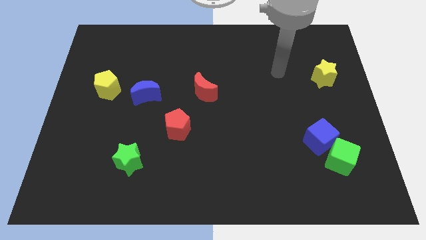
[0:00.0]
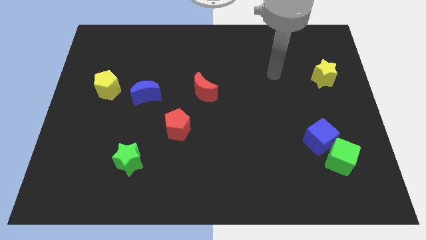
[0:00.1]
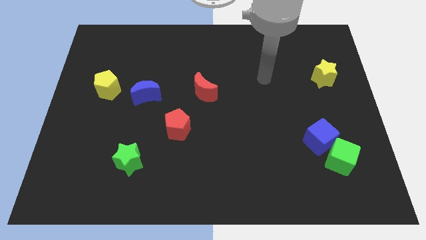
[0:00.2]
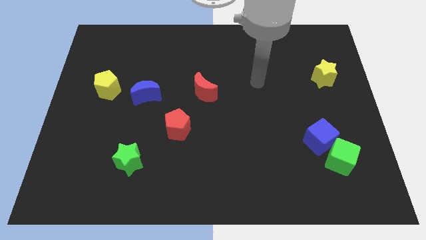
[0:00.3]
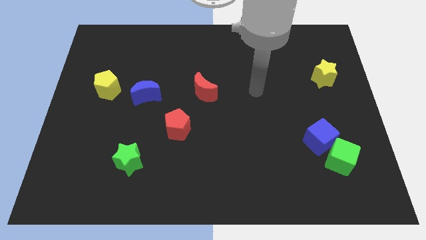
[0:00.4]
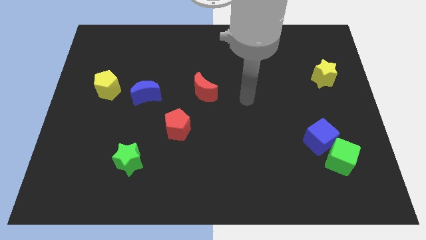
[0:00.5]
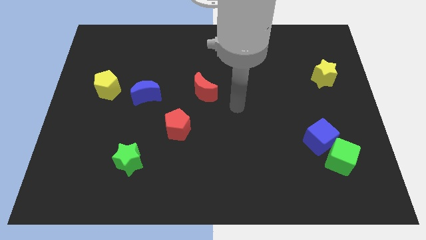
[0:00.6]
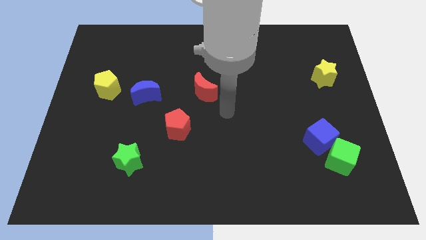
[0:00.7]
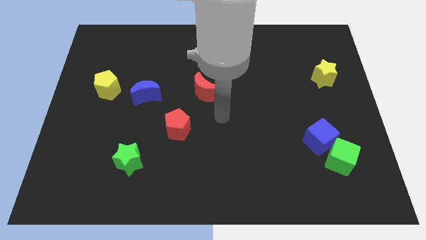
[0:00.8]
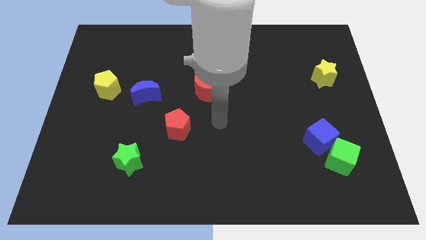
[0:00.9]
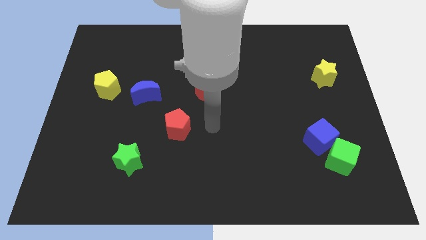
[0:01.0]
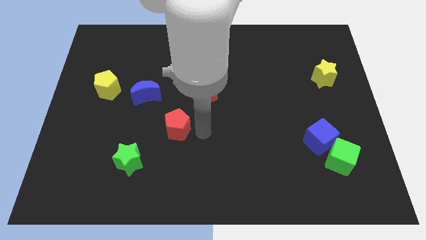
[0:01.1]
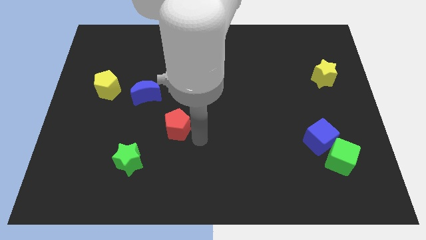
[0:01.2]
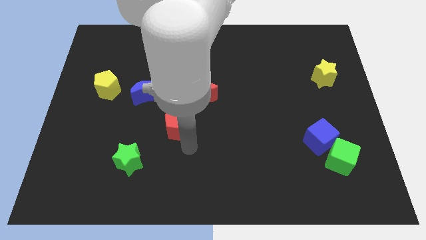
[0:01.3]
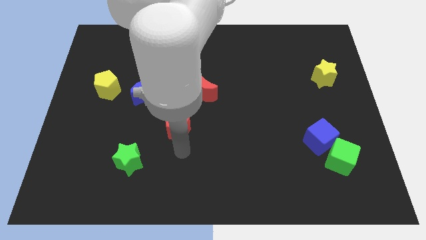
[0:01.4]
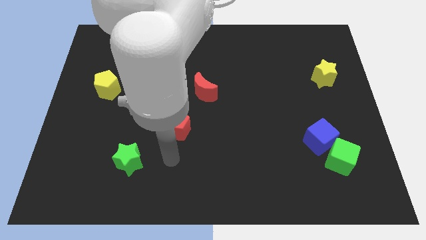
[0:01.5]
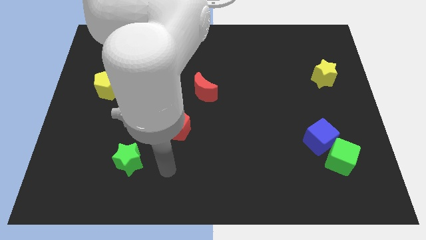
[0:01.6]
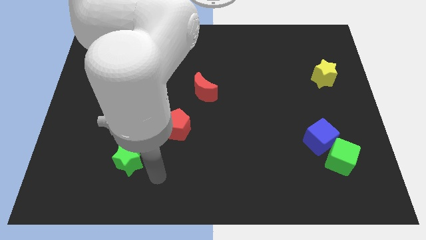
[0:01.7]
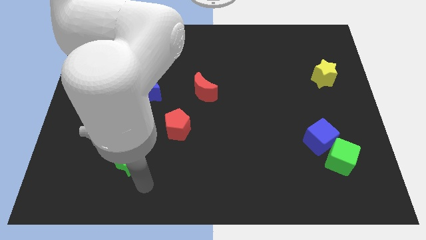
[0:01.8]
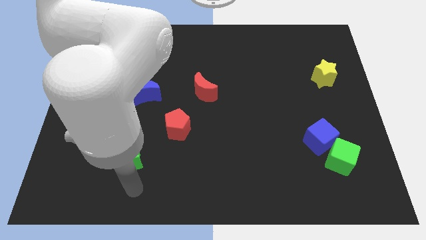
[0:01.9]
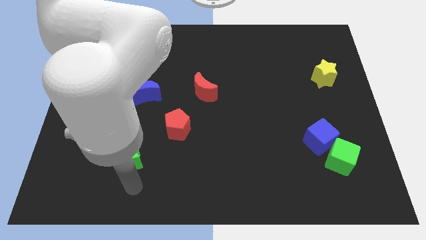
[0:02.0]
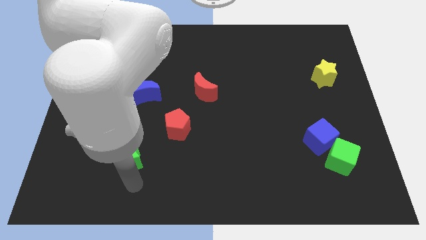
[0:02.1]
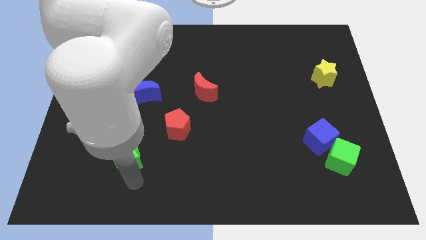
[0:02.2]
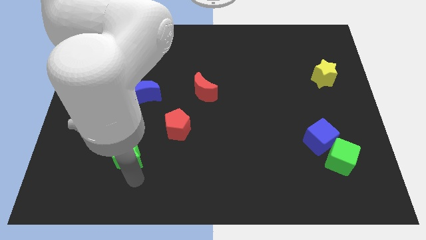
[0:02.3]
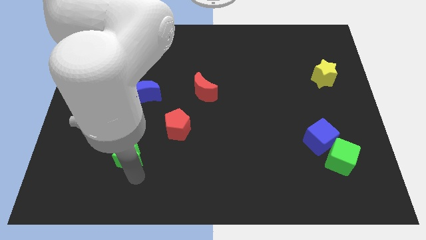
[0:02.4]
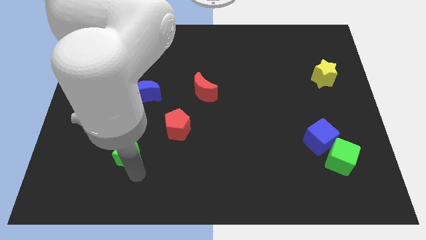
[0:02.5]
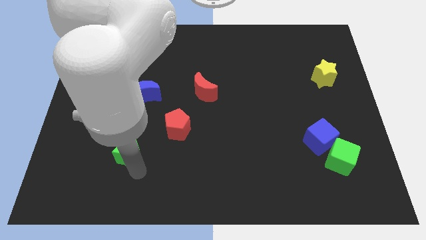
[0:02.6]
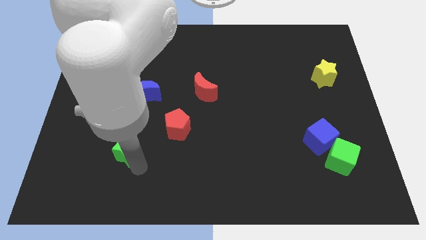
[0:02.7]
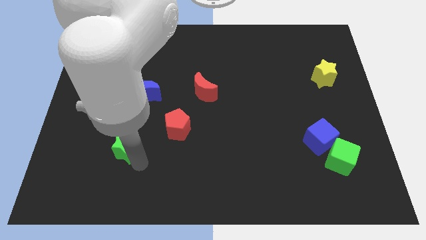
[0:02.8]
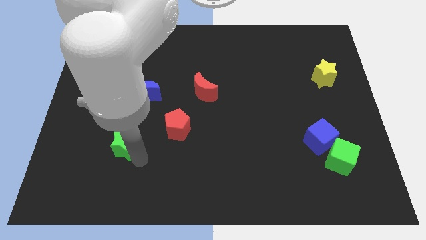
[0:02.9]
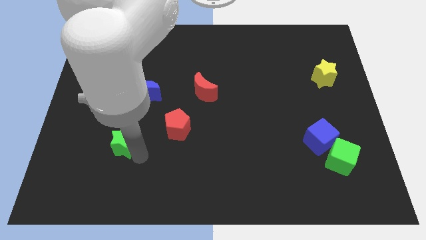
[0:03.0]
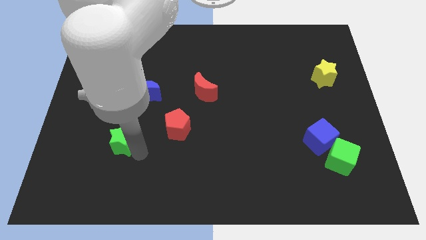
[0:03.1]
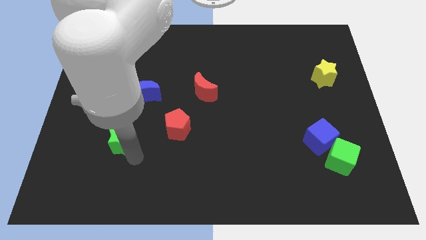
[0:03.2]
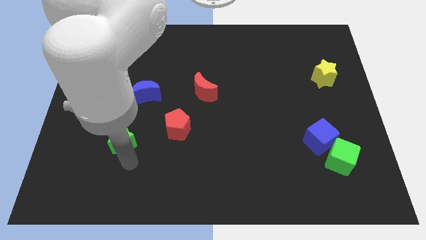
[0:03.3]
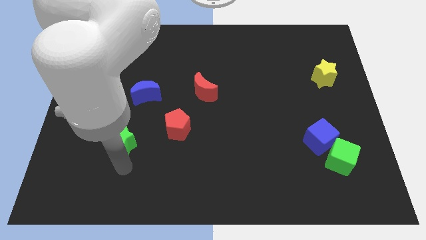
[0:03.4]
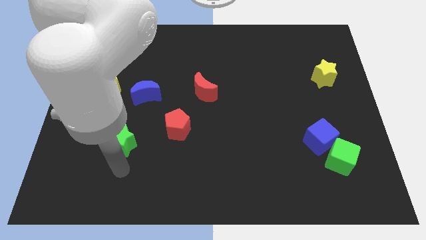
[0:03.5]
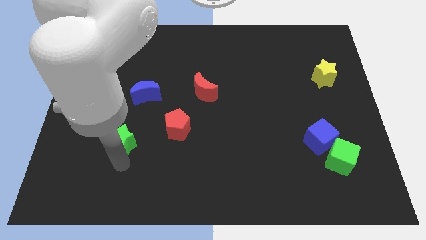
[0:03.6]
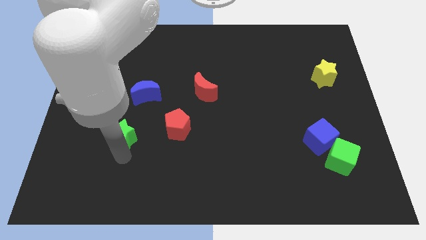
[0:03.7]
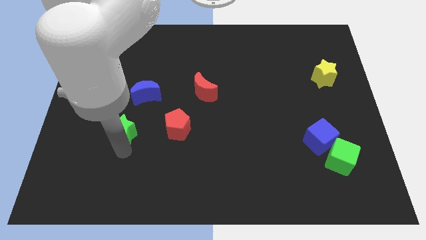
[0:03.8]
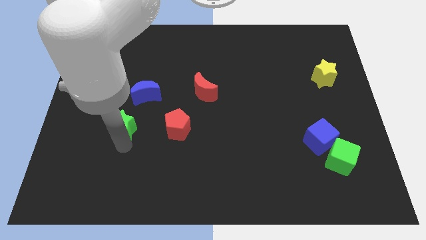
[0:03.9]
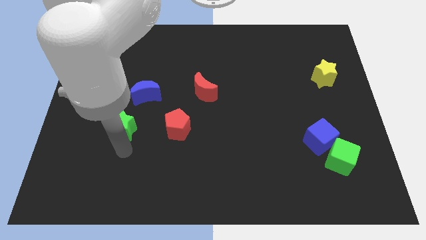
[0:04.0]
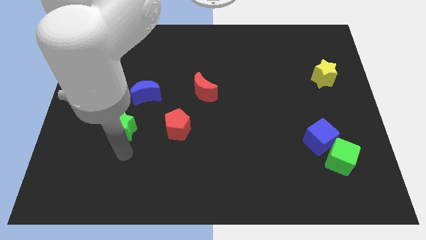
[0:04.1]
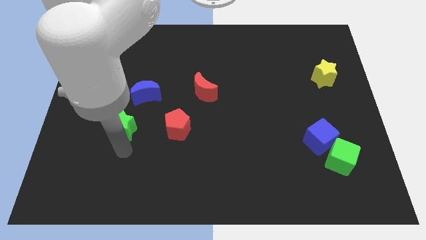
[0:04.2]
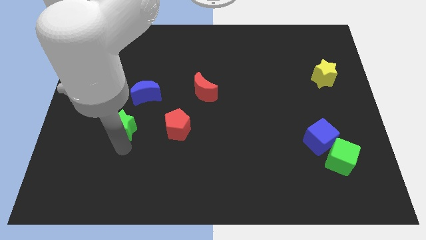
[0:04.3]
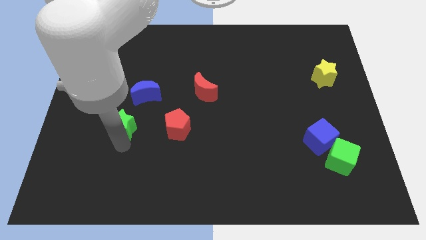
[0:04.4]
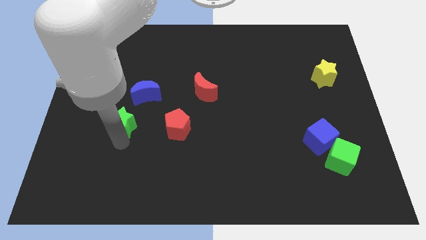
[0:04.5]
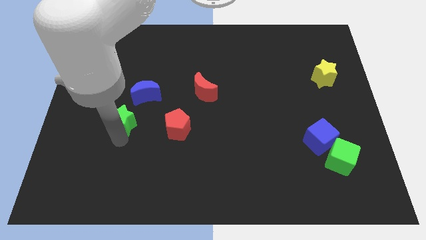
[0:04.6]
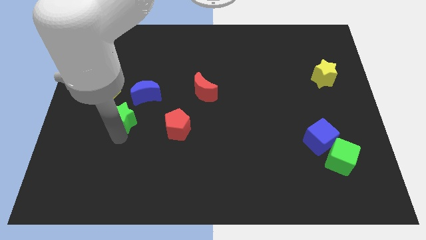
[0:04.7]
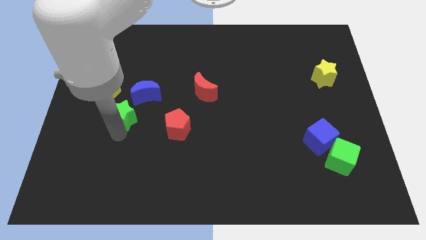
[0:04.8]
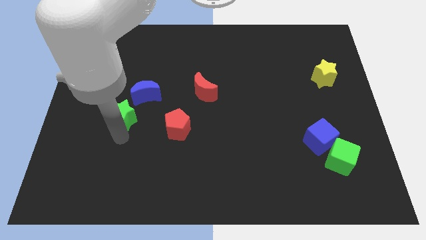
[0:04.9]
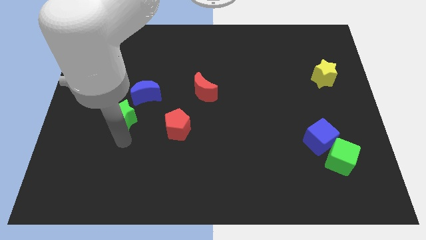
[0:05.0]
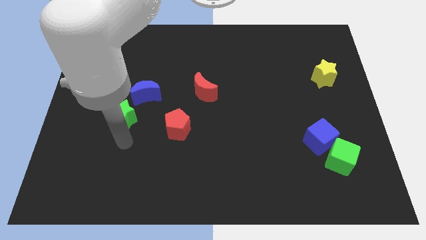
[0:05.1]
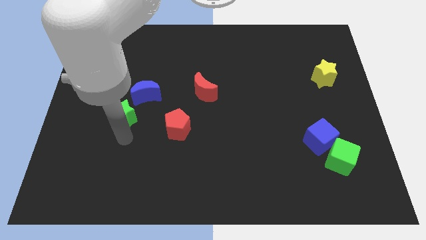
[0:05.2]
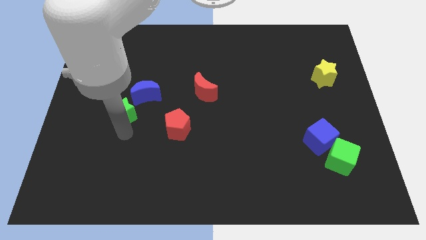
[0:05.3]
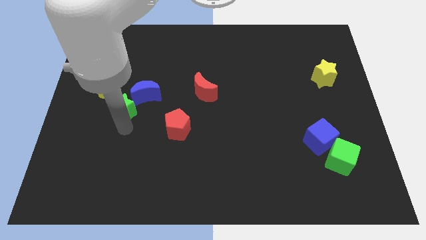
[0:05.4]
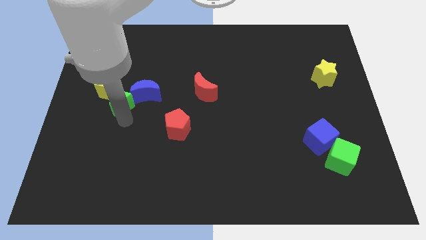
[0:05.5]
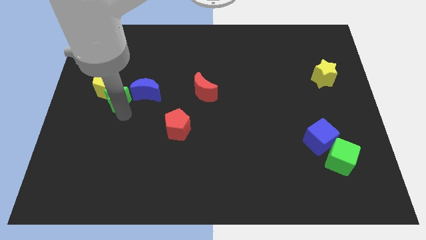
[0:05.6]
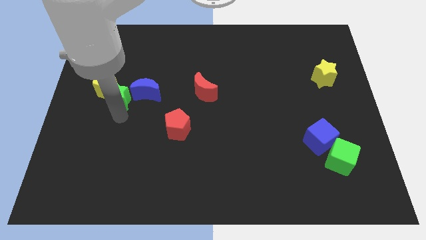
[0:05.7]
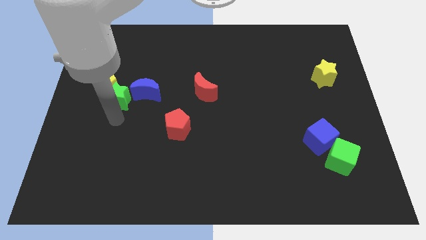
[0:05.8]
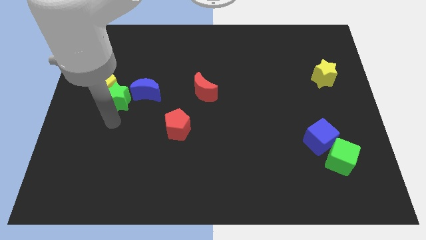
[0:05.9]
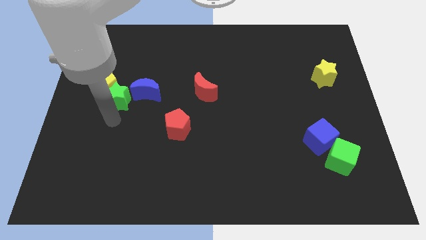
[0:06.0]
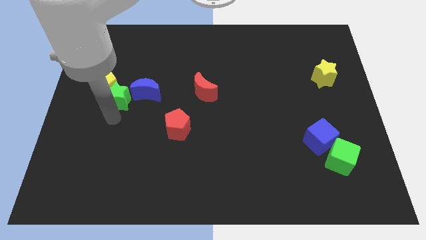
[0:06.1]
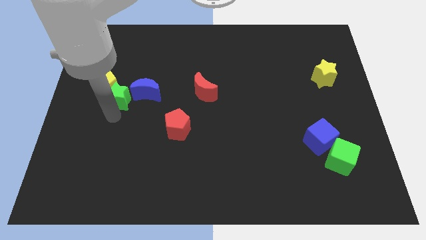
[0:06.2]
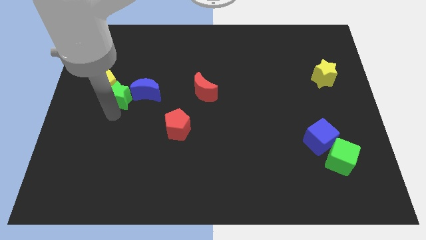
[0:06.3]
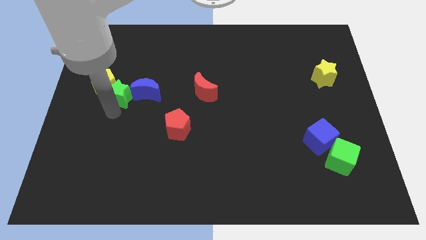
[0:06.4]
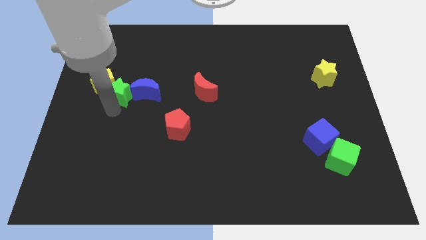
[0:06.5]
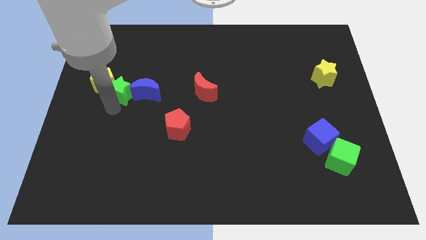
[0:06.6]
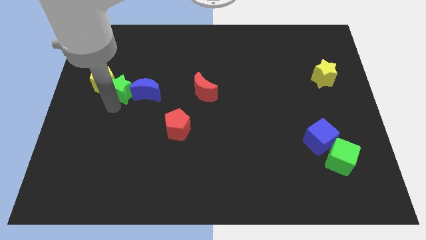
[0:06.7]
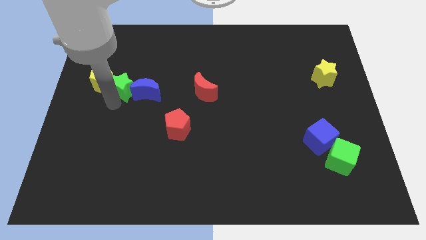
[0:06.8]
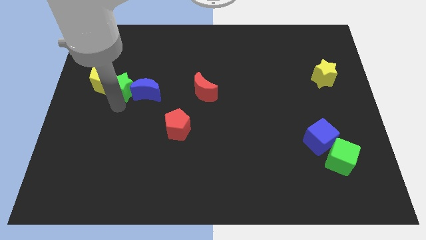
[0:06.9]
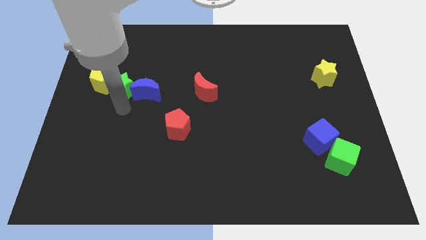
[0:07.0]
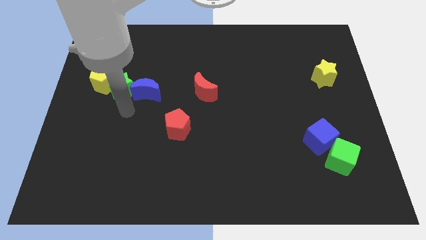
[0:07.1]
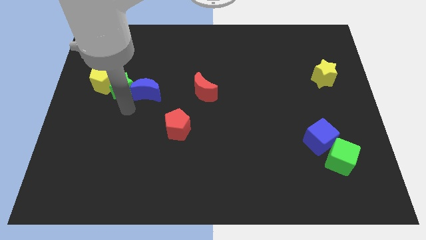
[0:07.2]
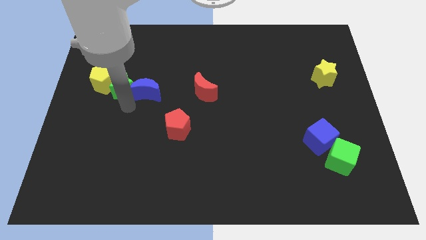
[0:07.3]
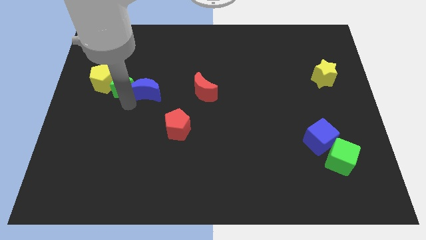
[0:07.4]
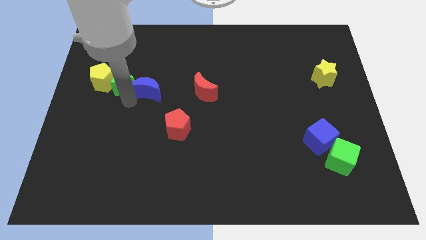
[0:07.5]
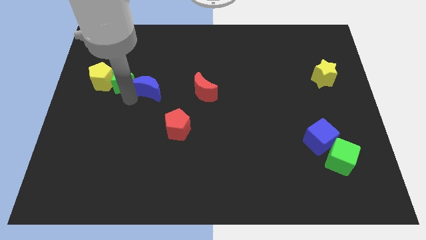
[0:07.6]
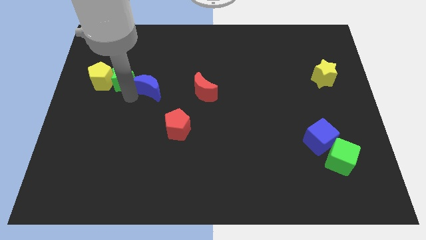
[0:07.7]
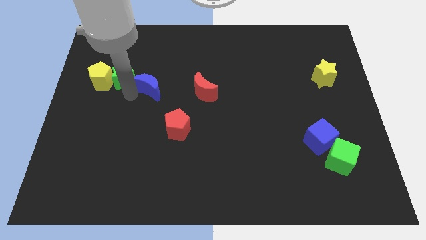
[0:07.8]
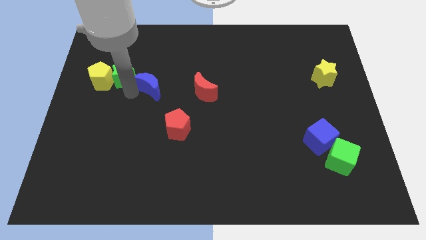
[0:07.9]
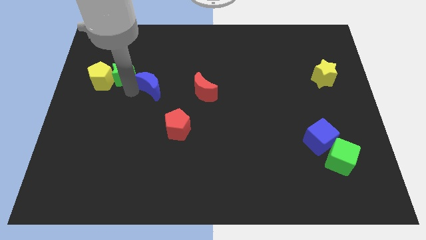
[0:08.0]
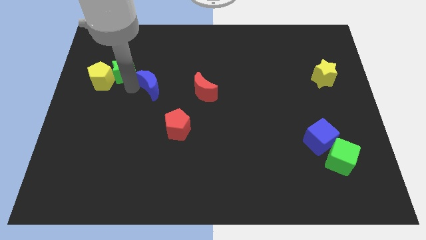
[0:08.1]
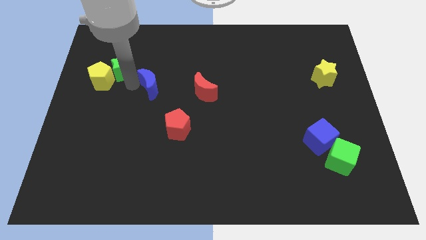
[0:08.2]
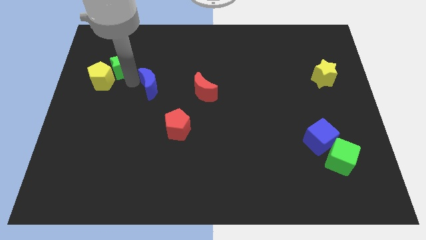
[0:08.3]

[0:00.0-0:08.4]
move the green star to the top side of the yellow pentagon
